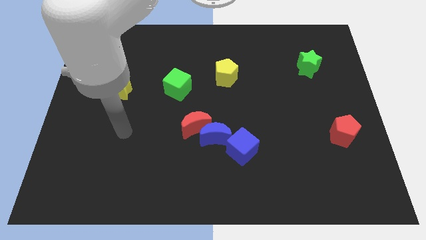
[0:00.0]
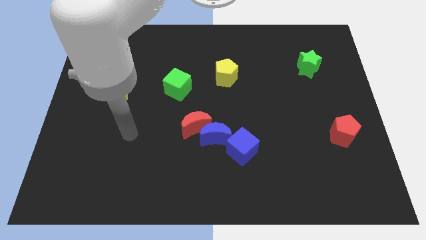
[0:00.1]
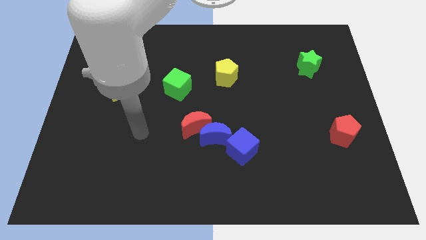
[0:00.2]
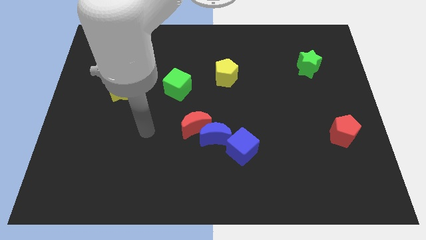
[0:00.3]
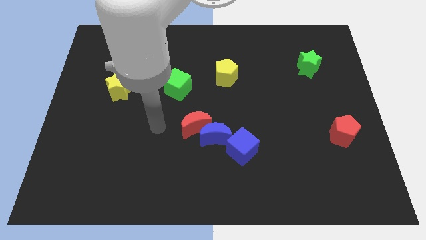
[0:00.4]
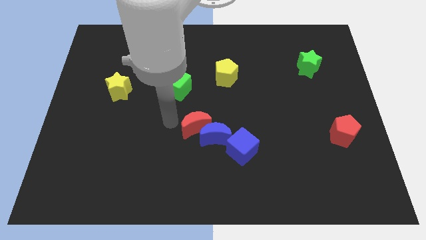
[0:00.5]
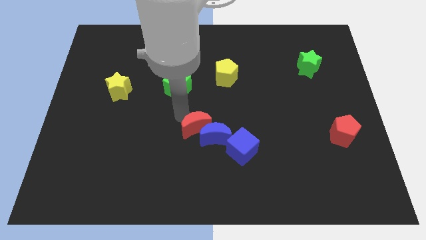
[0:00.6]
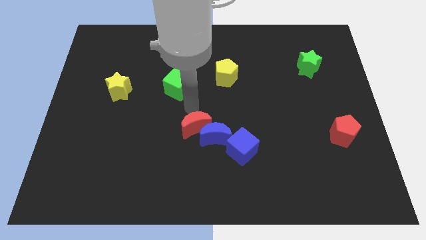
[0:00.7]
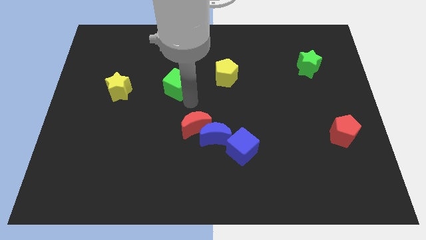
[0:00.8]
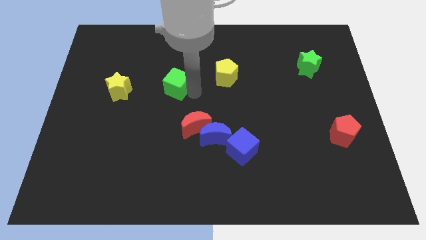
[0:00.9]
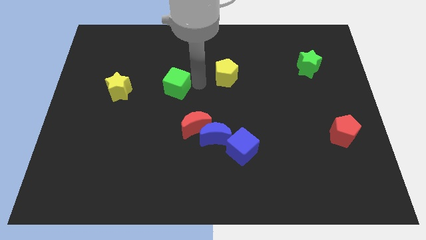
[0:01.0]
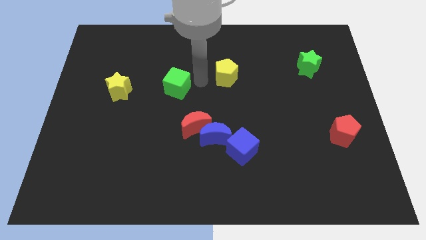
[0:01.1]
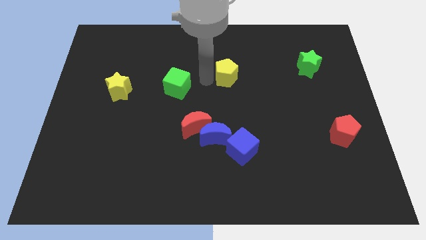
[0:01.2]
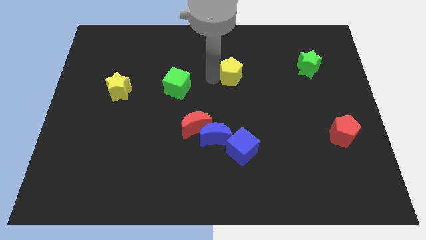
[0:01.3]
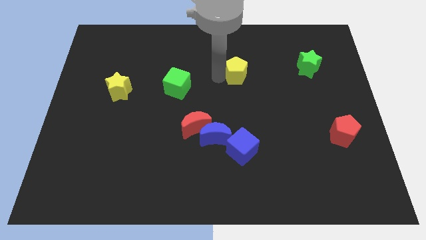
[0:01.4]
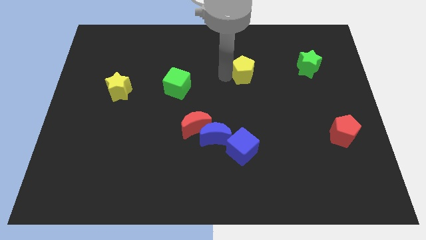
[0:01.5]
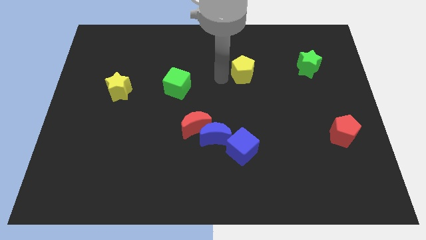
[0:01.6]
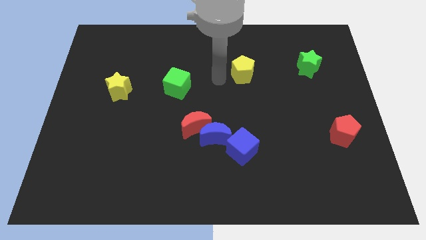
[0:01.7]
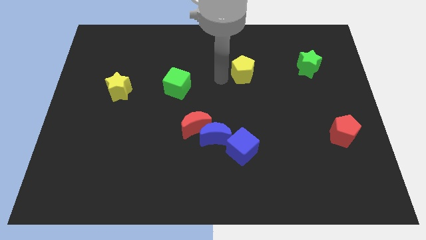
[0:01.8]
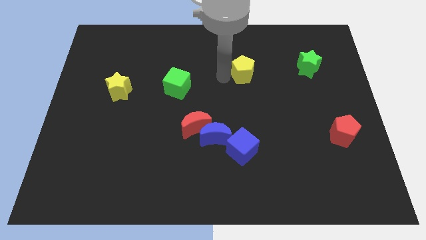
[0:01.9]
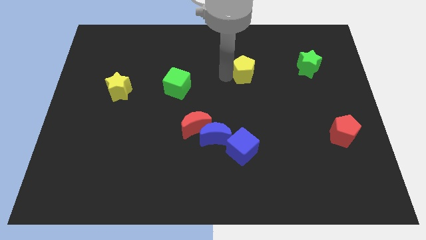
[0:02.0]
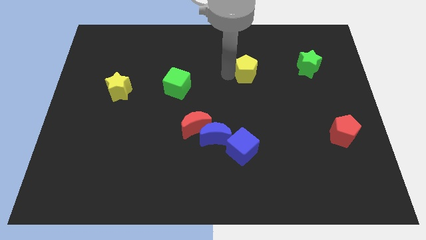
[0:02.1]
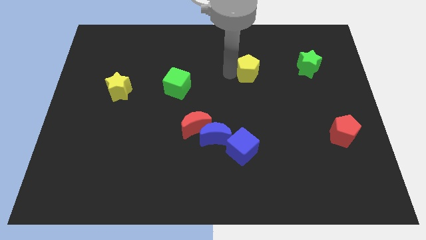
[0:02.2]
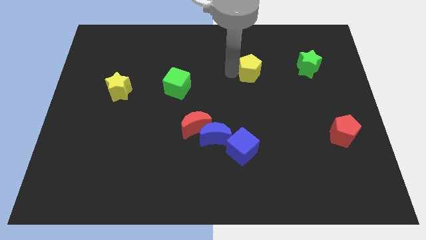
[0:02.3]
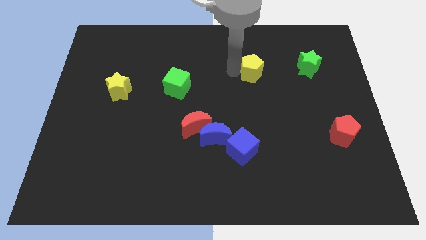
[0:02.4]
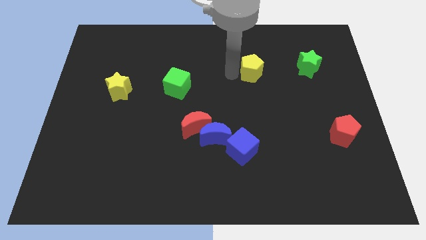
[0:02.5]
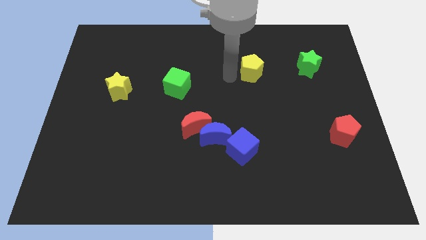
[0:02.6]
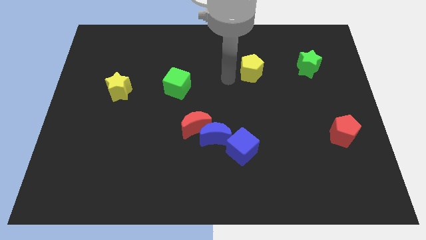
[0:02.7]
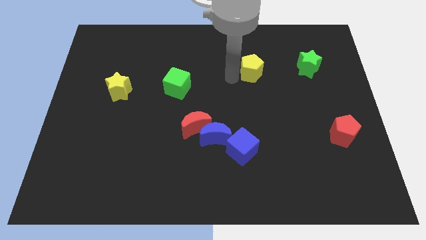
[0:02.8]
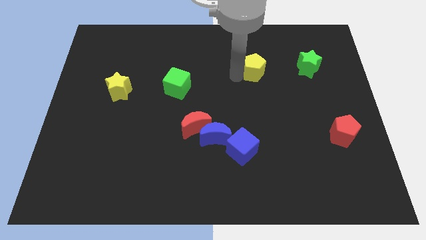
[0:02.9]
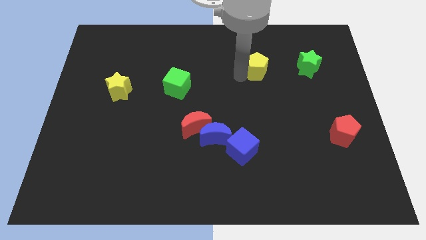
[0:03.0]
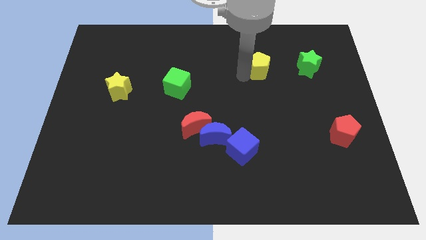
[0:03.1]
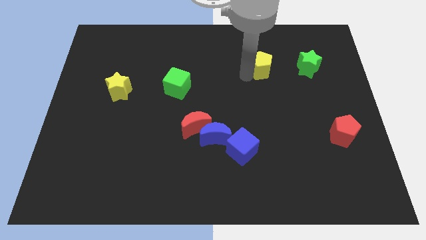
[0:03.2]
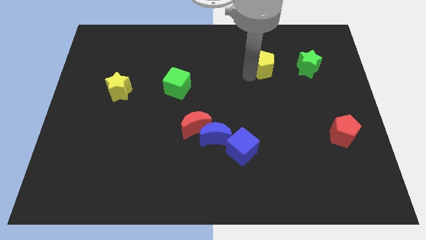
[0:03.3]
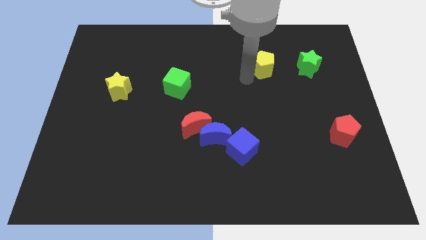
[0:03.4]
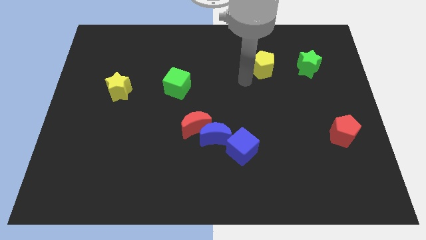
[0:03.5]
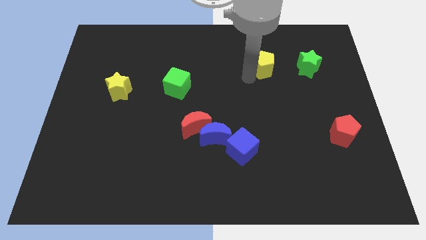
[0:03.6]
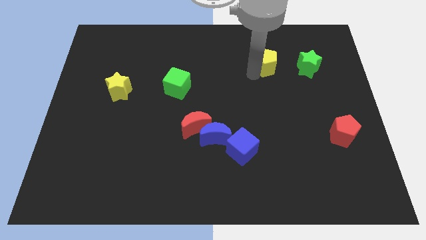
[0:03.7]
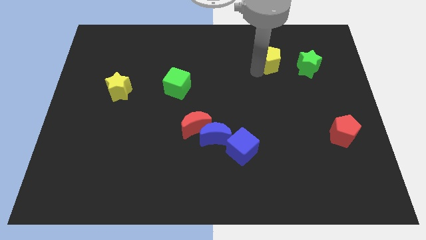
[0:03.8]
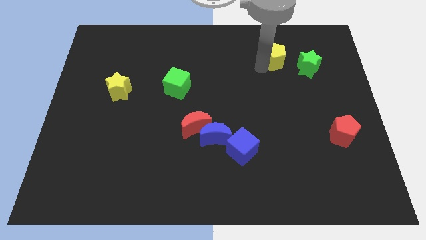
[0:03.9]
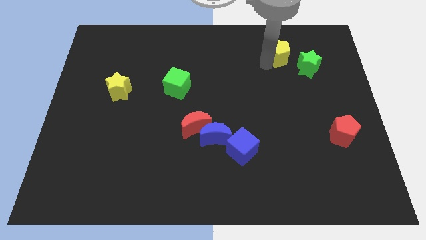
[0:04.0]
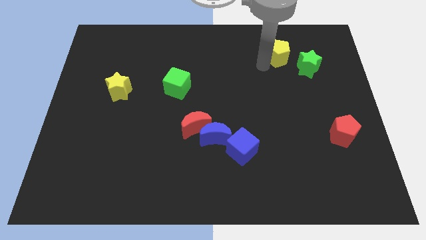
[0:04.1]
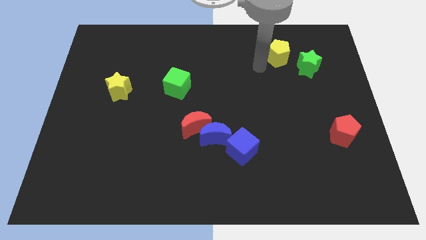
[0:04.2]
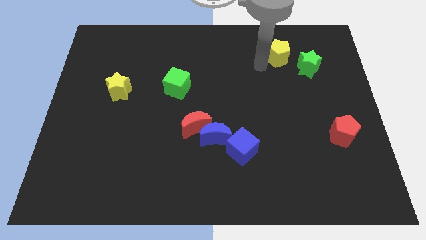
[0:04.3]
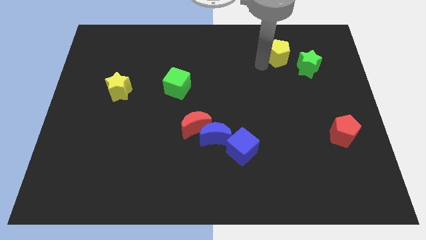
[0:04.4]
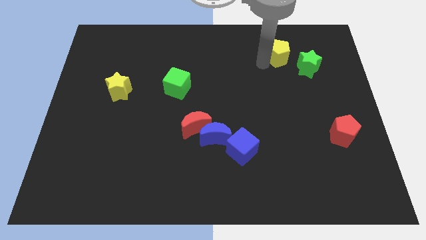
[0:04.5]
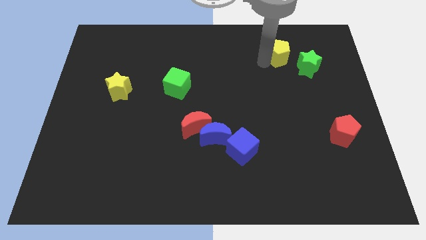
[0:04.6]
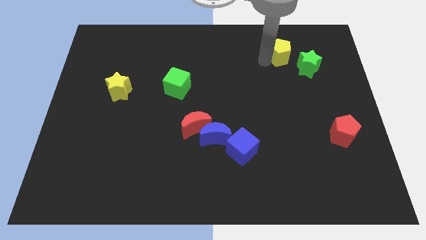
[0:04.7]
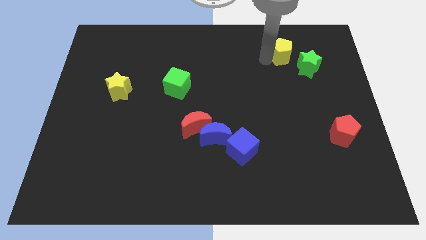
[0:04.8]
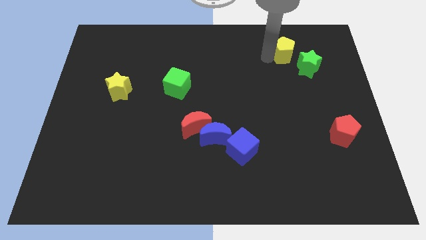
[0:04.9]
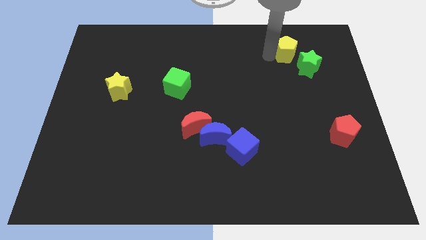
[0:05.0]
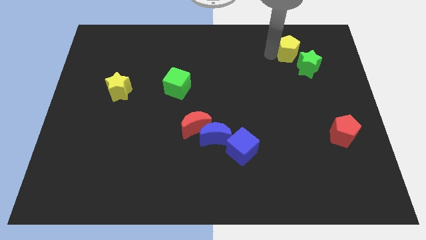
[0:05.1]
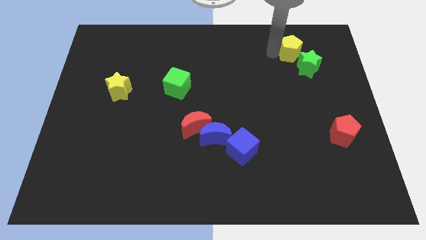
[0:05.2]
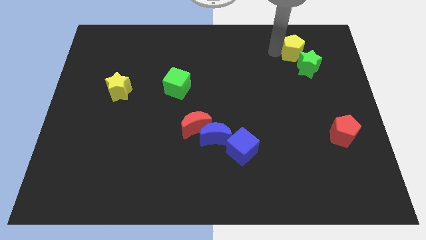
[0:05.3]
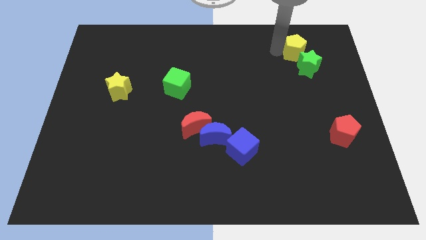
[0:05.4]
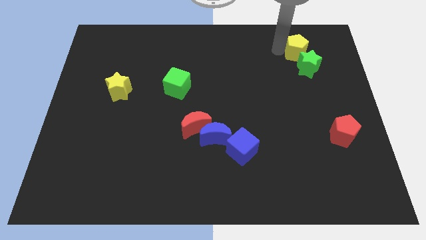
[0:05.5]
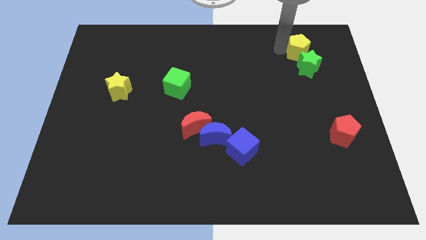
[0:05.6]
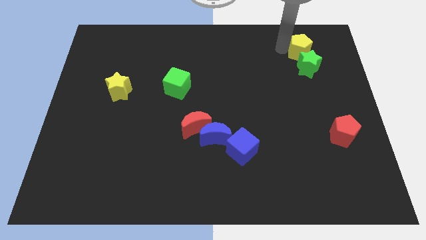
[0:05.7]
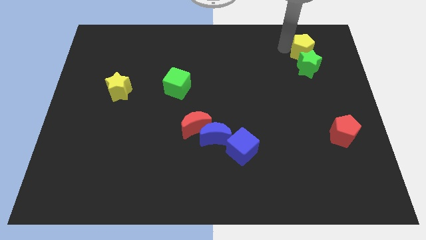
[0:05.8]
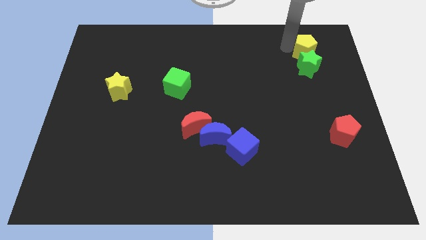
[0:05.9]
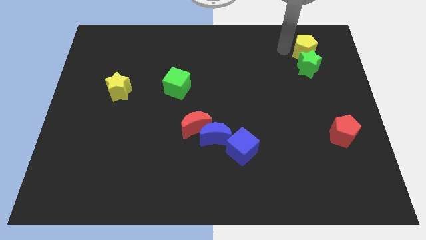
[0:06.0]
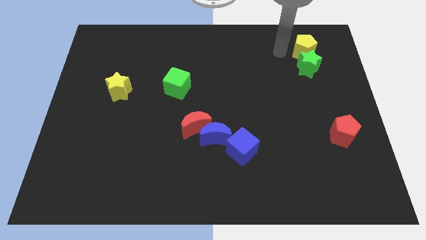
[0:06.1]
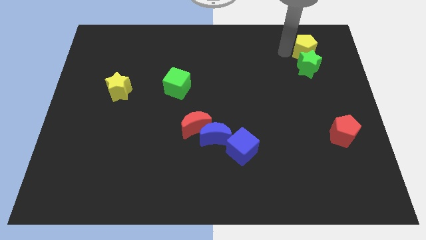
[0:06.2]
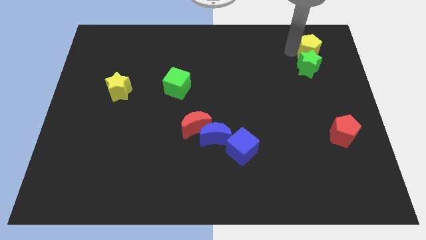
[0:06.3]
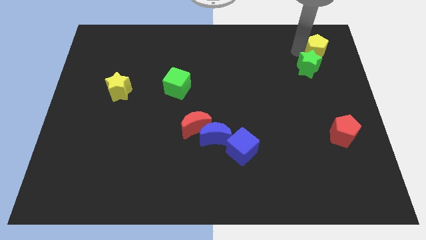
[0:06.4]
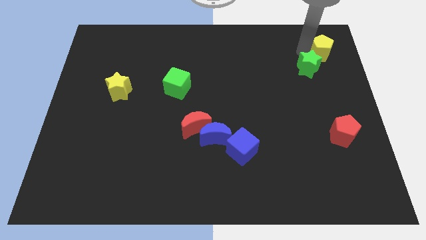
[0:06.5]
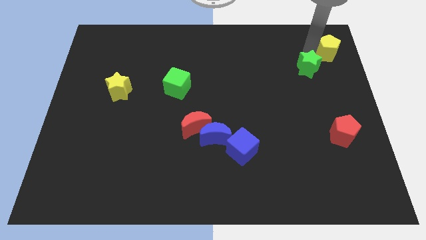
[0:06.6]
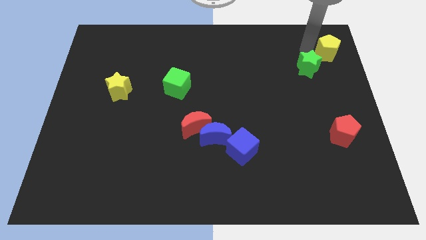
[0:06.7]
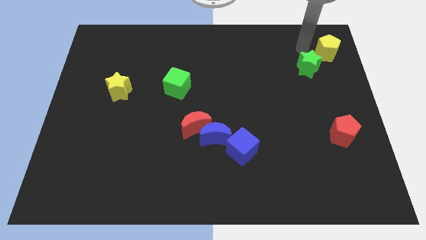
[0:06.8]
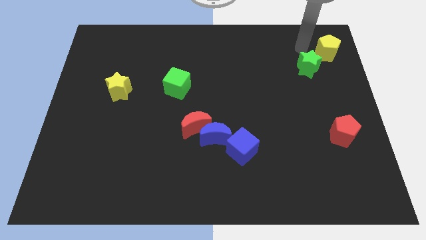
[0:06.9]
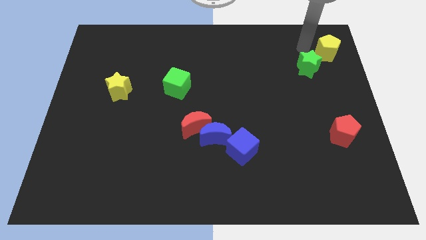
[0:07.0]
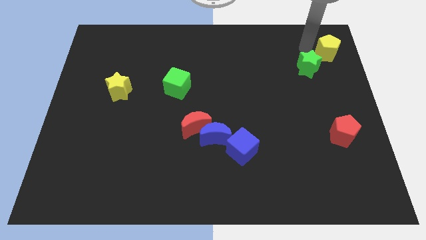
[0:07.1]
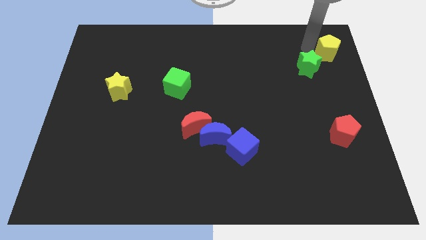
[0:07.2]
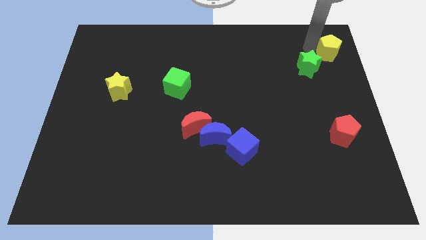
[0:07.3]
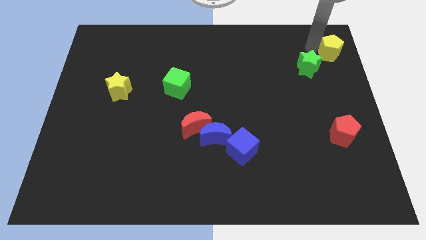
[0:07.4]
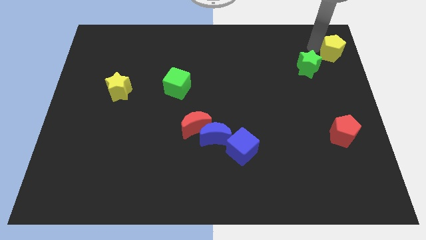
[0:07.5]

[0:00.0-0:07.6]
move the yellow pentagon to the upper right corner
